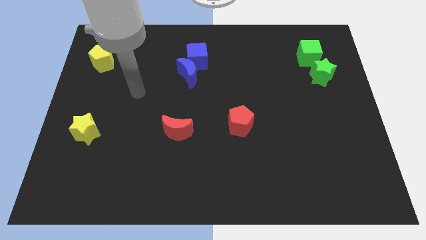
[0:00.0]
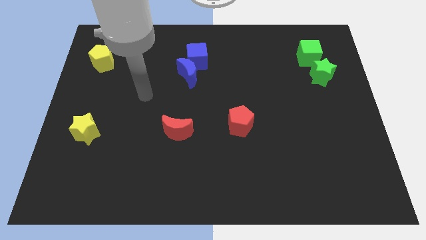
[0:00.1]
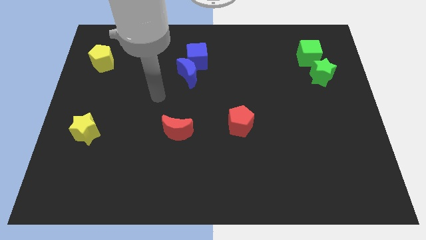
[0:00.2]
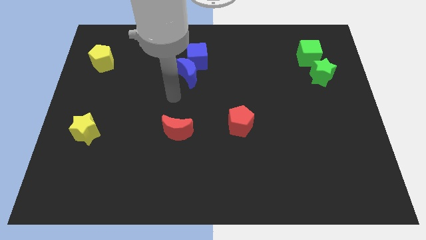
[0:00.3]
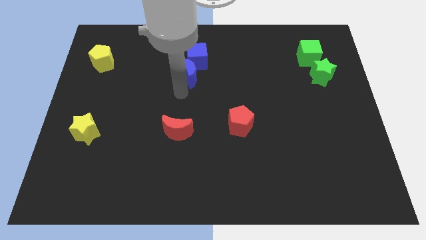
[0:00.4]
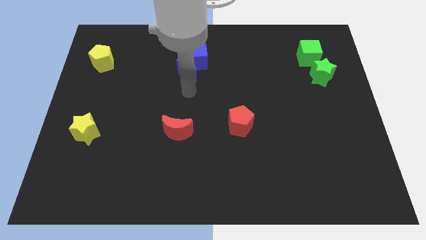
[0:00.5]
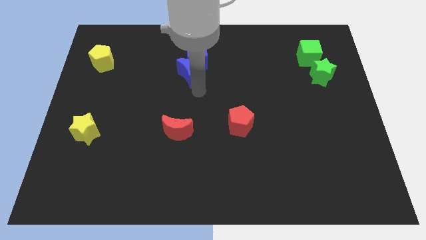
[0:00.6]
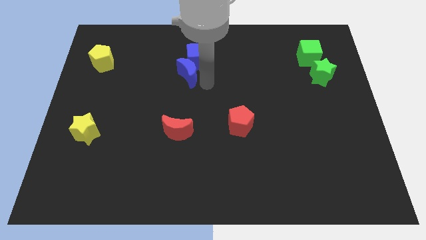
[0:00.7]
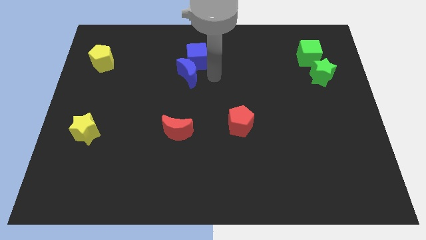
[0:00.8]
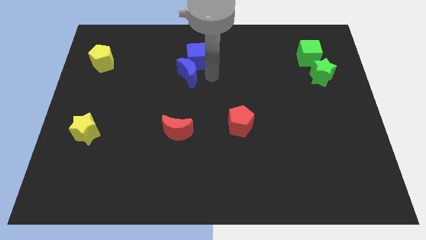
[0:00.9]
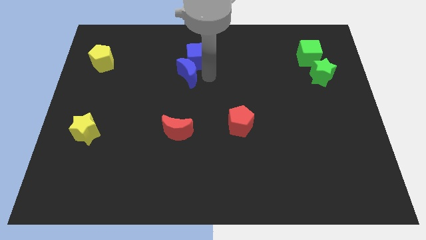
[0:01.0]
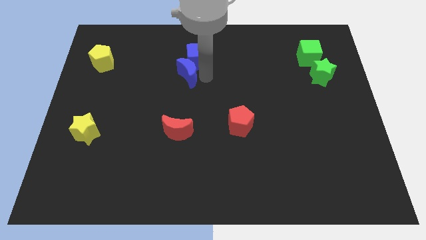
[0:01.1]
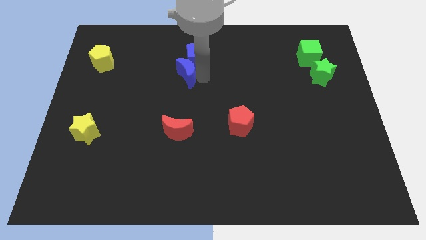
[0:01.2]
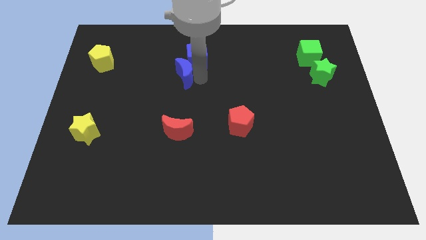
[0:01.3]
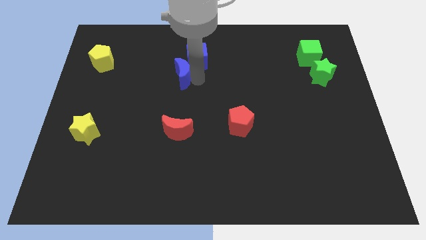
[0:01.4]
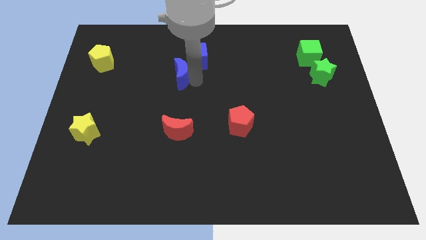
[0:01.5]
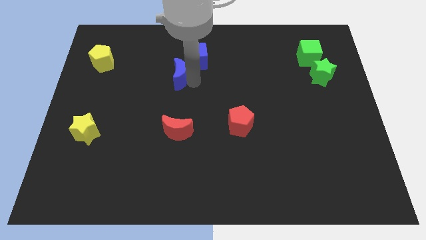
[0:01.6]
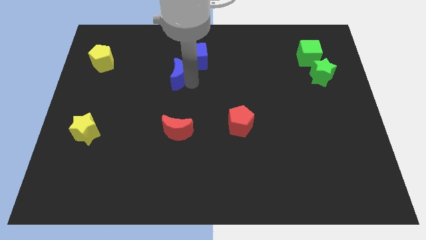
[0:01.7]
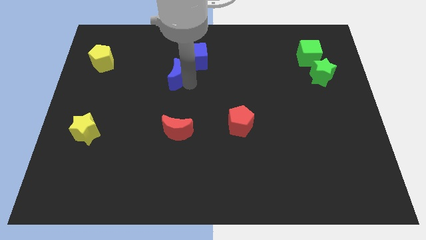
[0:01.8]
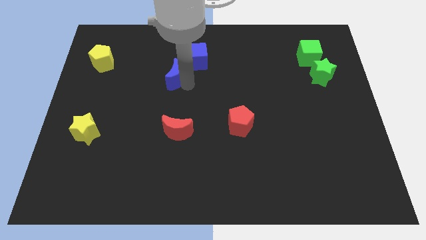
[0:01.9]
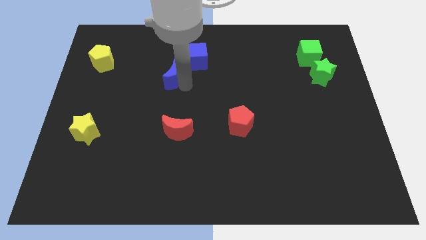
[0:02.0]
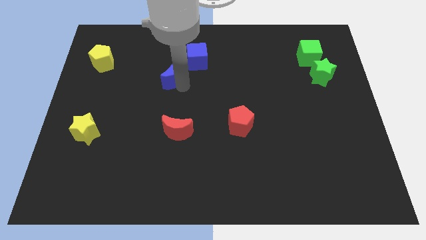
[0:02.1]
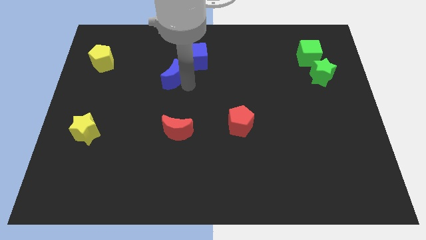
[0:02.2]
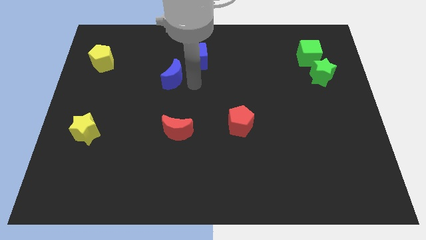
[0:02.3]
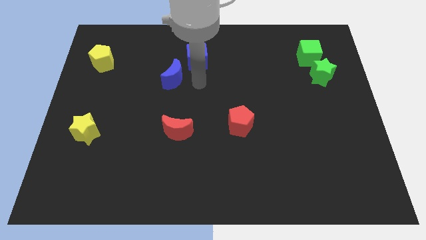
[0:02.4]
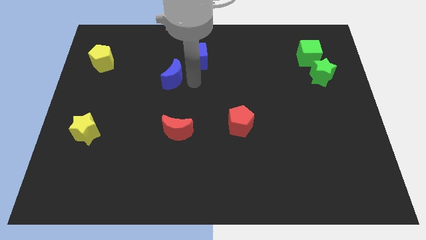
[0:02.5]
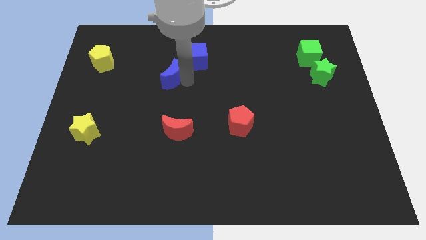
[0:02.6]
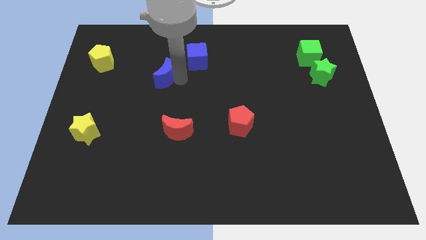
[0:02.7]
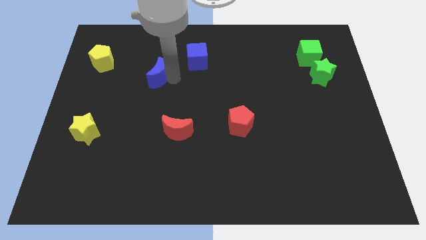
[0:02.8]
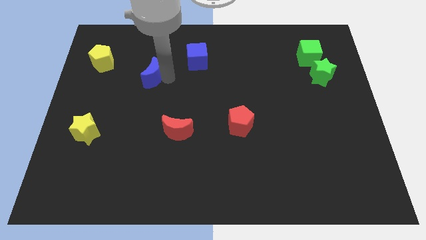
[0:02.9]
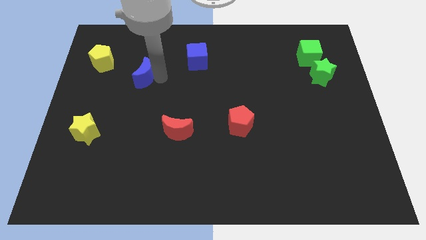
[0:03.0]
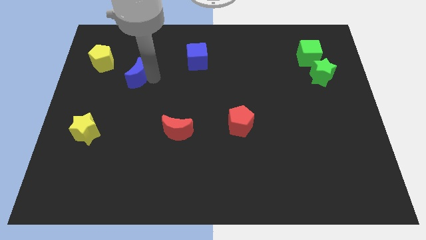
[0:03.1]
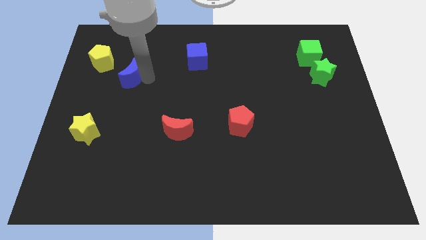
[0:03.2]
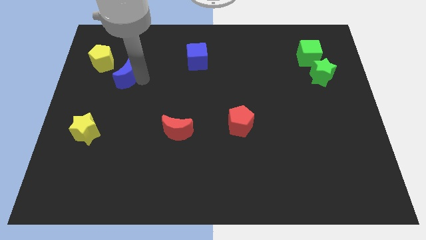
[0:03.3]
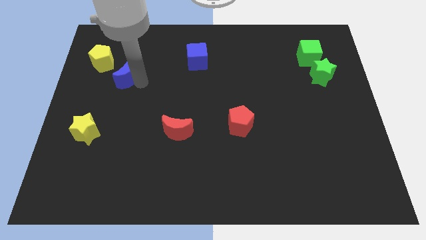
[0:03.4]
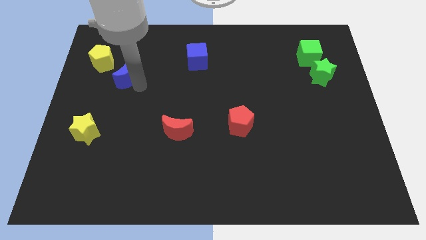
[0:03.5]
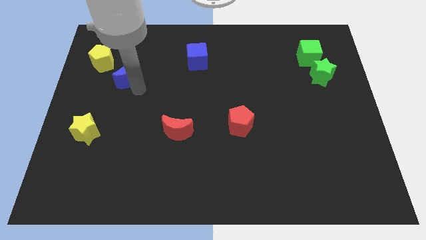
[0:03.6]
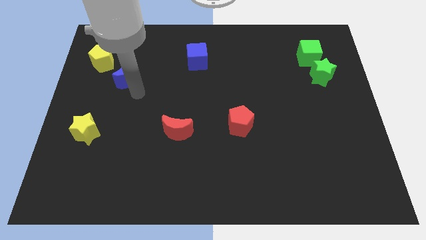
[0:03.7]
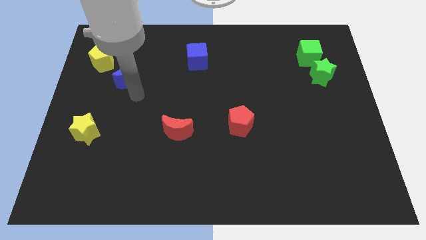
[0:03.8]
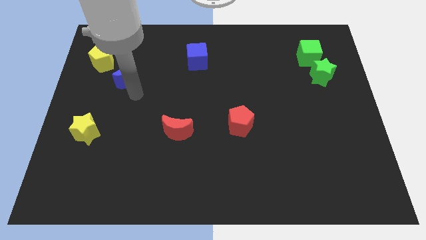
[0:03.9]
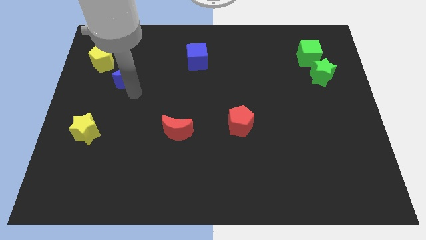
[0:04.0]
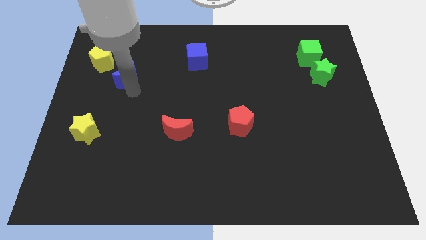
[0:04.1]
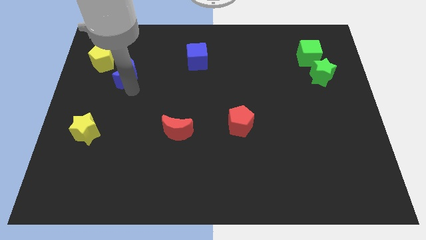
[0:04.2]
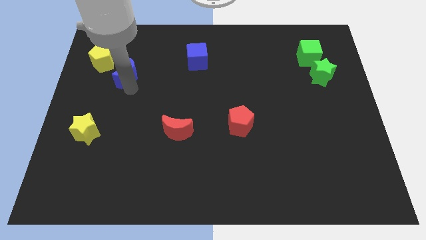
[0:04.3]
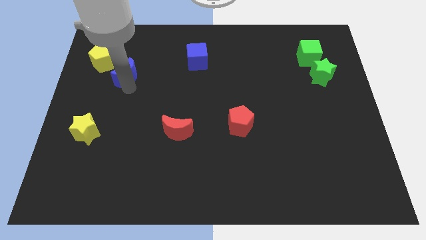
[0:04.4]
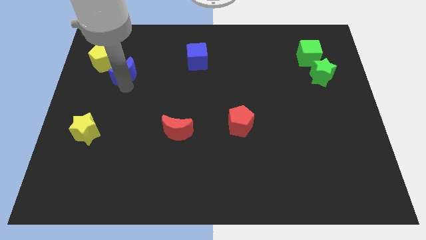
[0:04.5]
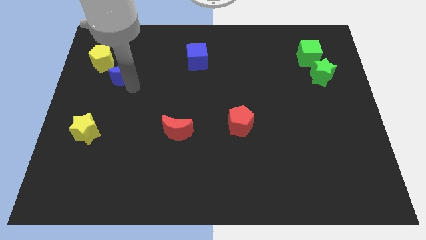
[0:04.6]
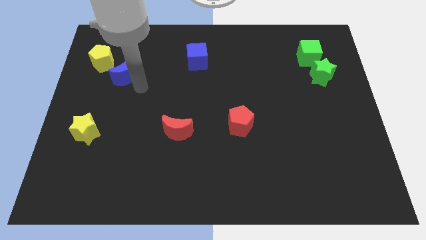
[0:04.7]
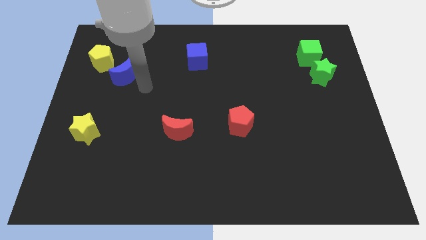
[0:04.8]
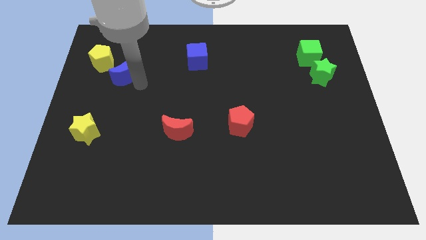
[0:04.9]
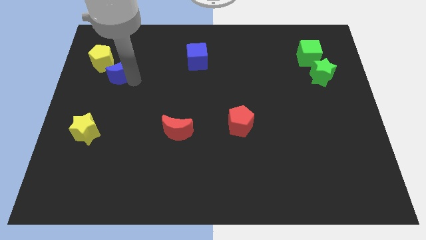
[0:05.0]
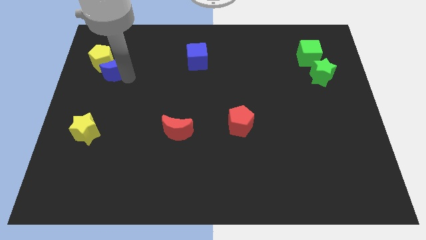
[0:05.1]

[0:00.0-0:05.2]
push the blue moon next to the yellow pentagon

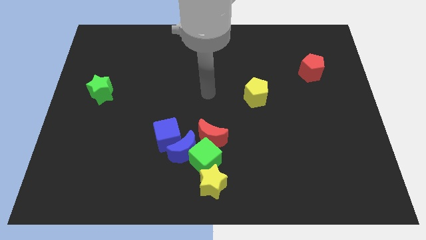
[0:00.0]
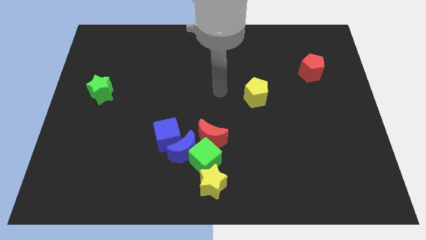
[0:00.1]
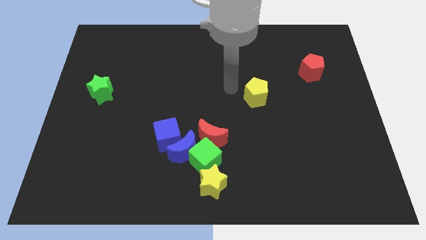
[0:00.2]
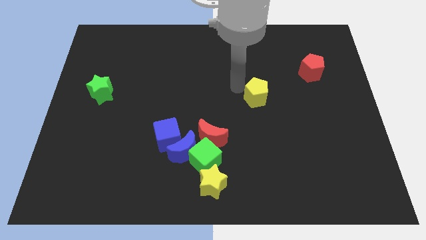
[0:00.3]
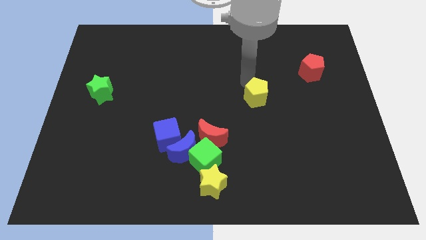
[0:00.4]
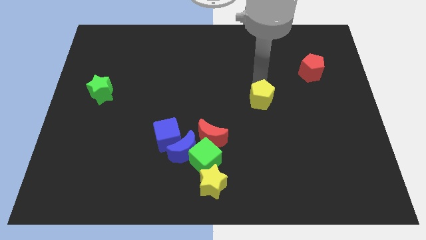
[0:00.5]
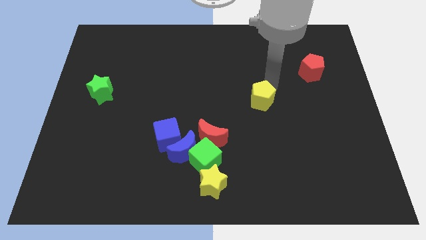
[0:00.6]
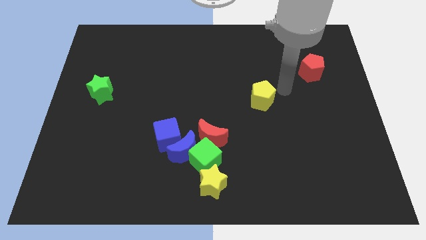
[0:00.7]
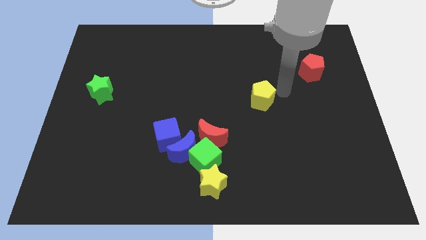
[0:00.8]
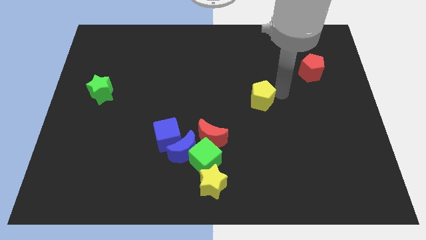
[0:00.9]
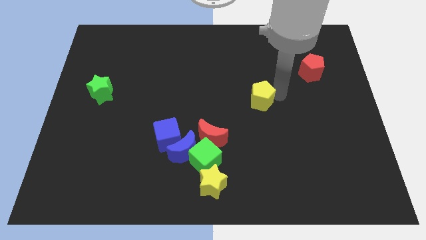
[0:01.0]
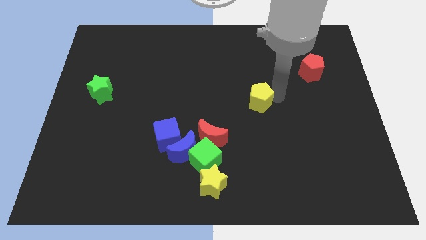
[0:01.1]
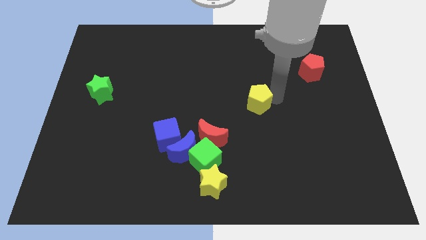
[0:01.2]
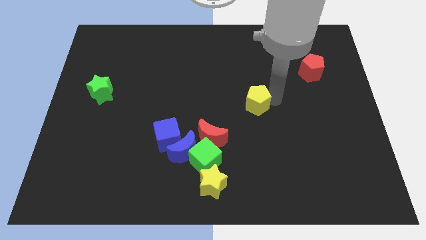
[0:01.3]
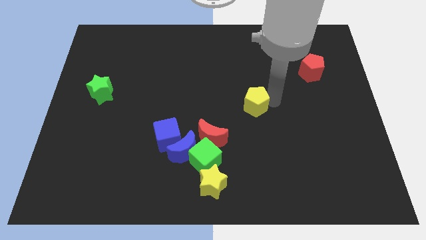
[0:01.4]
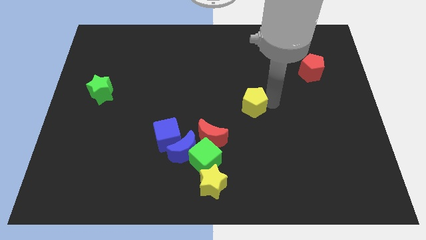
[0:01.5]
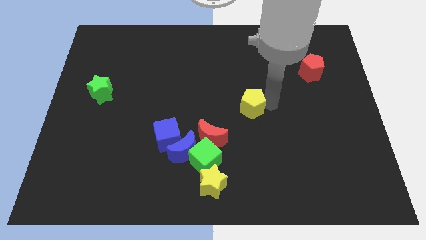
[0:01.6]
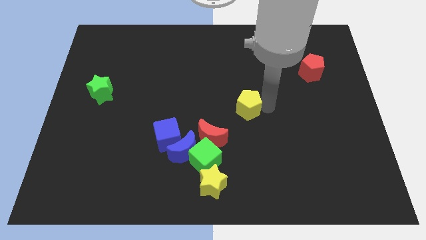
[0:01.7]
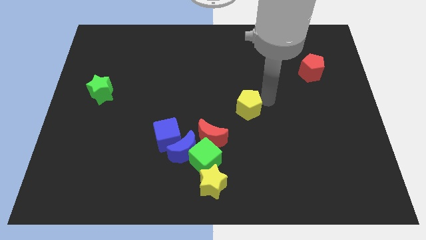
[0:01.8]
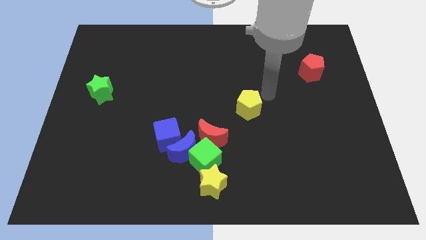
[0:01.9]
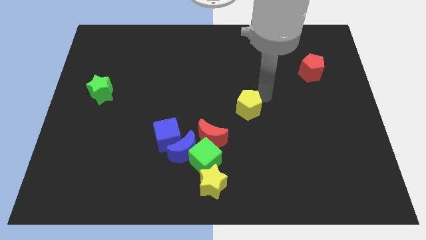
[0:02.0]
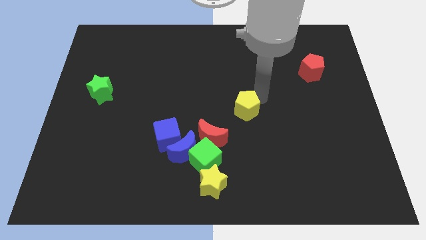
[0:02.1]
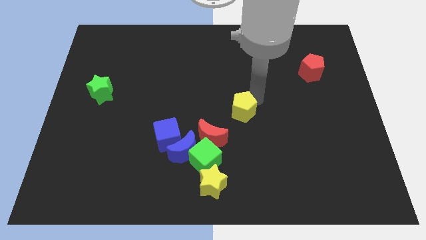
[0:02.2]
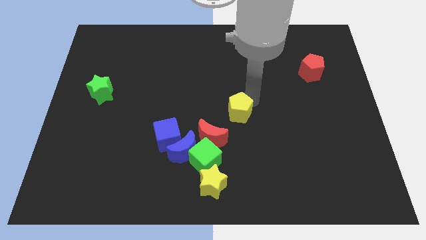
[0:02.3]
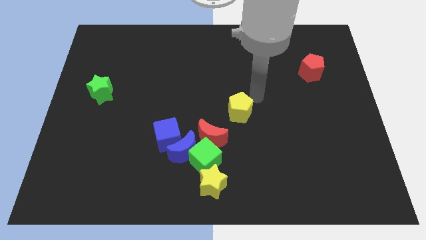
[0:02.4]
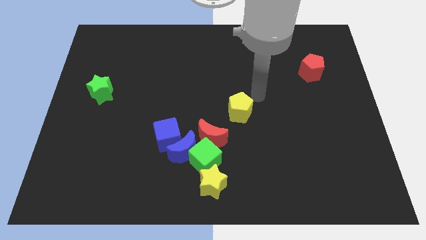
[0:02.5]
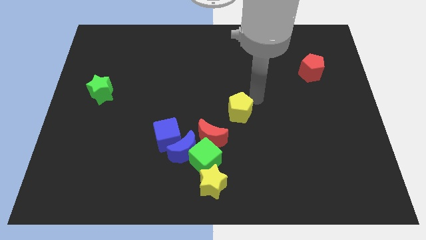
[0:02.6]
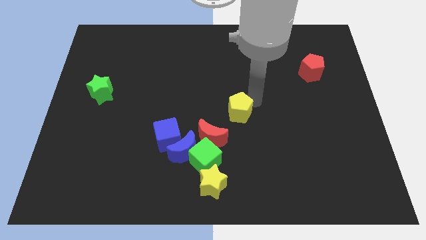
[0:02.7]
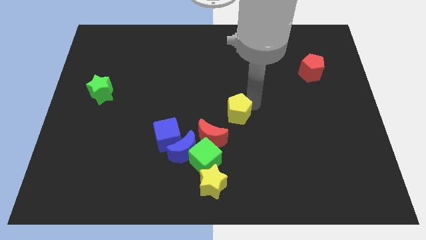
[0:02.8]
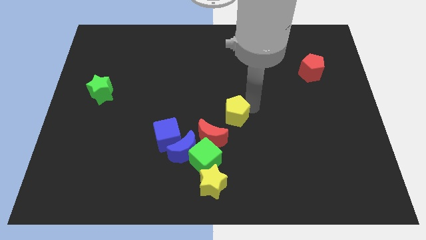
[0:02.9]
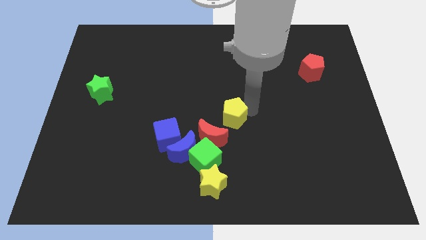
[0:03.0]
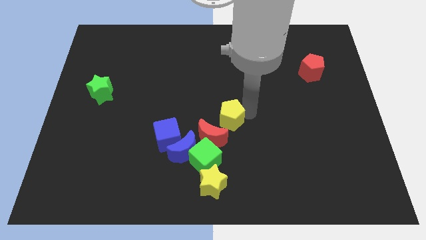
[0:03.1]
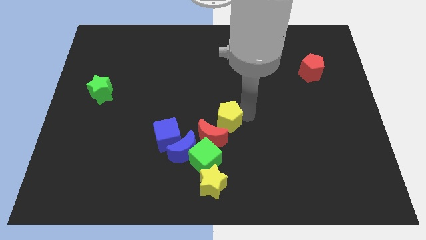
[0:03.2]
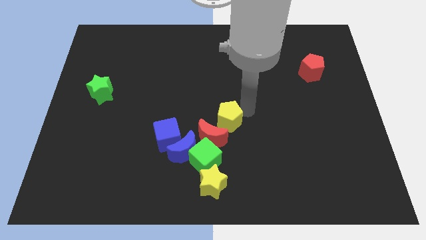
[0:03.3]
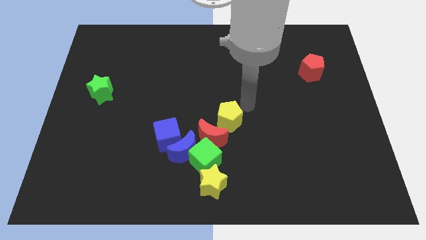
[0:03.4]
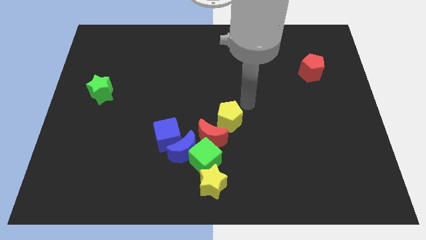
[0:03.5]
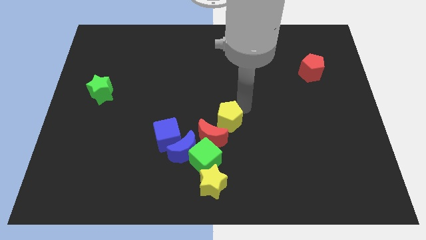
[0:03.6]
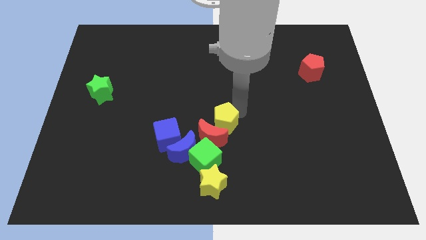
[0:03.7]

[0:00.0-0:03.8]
slide the yellow pentagon to the red moon
